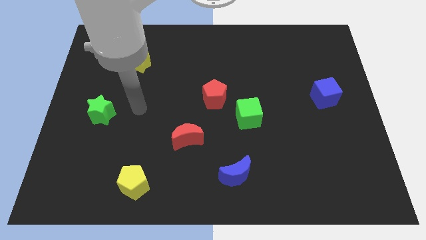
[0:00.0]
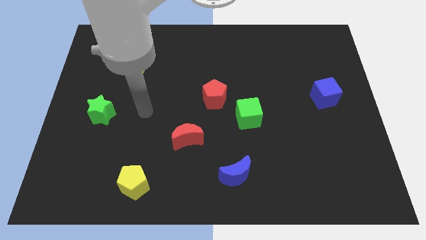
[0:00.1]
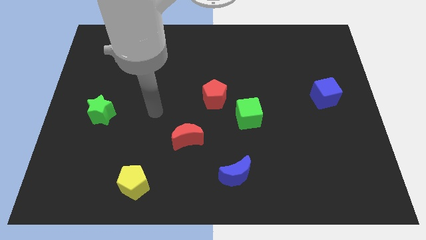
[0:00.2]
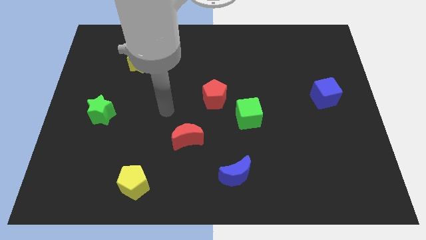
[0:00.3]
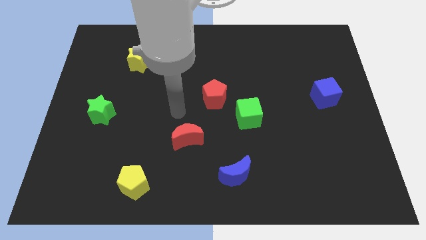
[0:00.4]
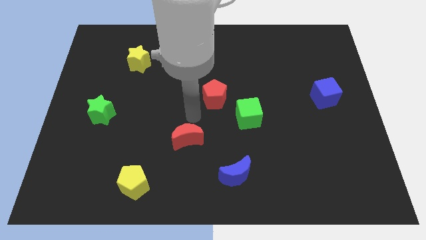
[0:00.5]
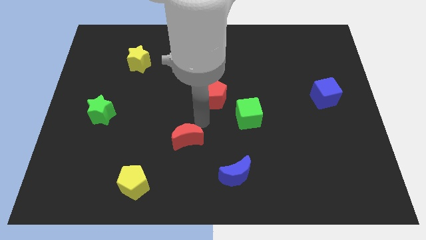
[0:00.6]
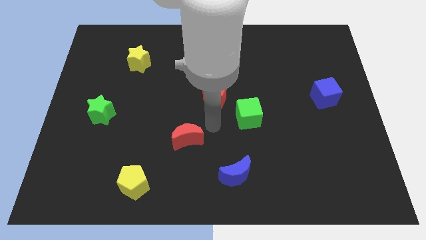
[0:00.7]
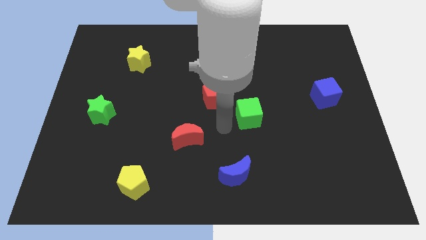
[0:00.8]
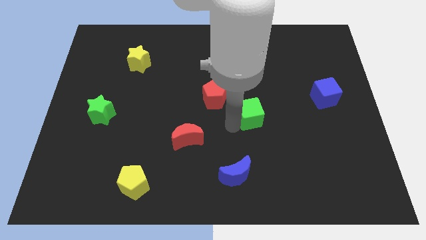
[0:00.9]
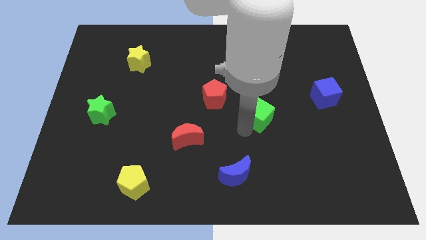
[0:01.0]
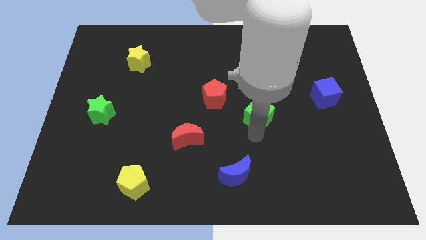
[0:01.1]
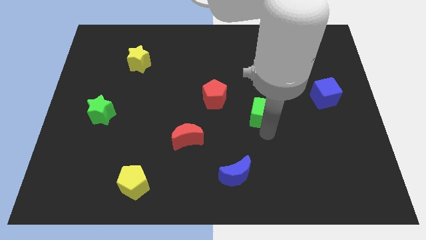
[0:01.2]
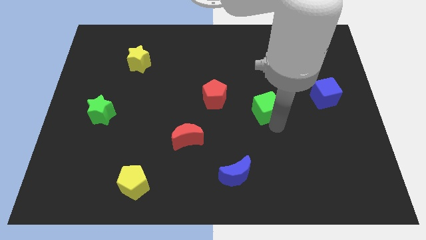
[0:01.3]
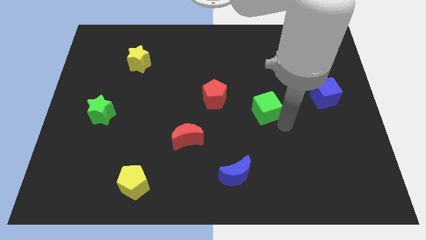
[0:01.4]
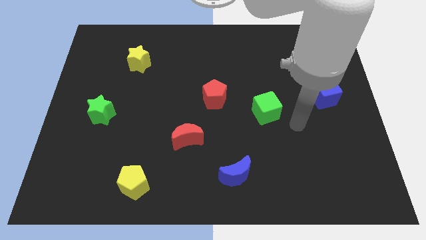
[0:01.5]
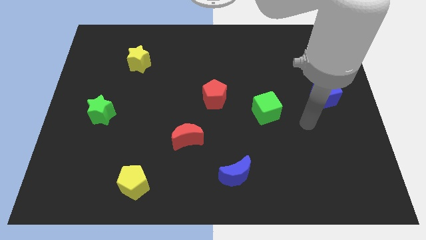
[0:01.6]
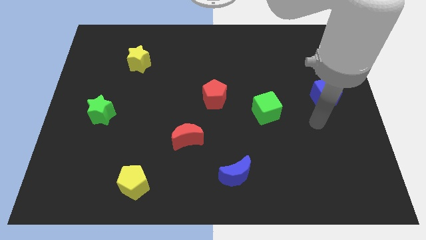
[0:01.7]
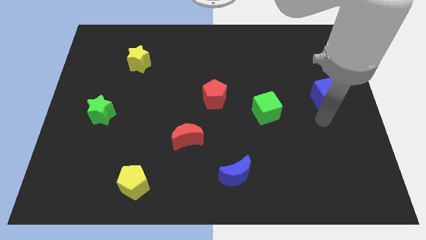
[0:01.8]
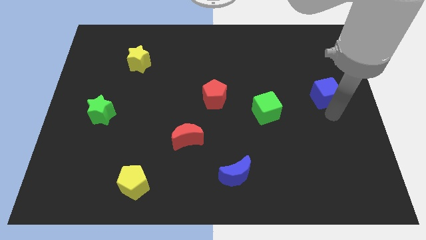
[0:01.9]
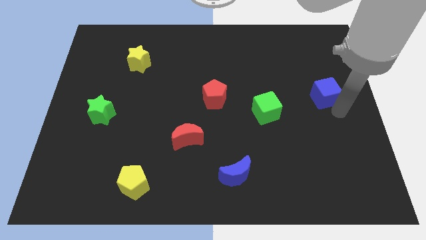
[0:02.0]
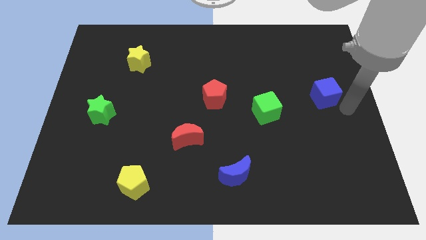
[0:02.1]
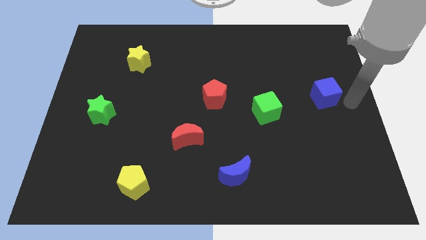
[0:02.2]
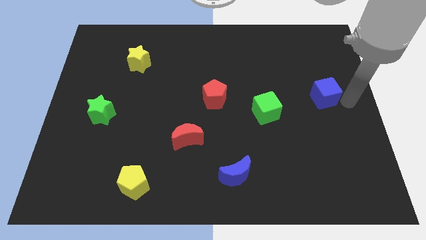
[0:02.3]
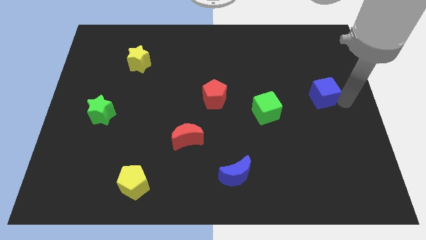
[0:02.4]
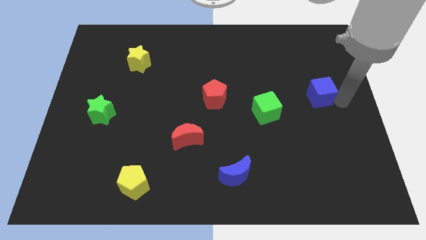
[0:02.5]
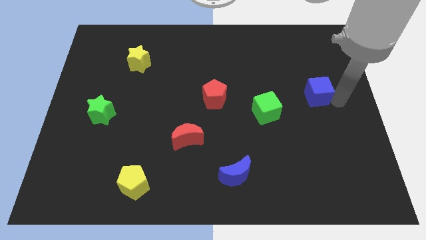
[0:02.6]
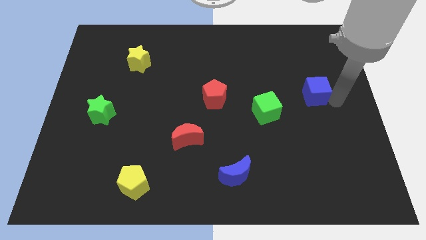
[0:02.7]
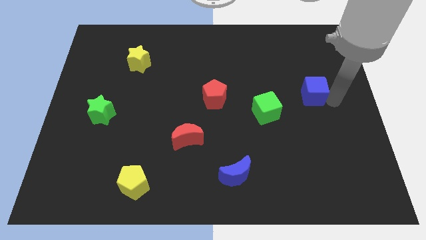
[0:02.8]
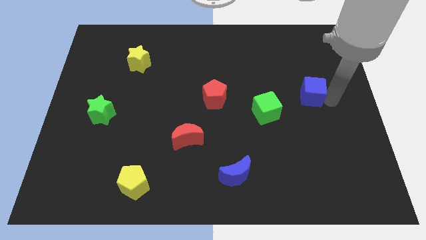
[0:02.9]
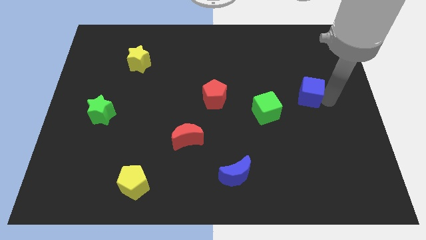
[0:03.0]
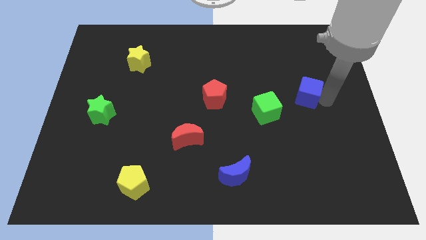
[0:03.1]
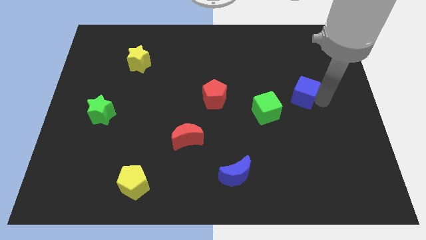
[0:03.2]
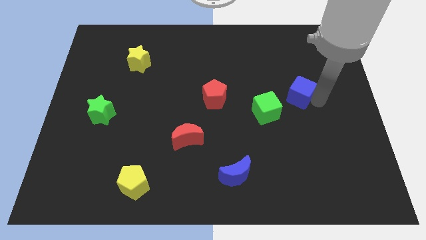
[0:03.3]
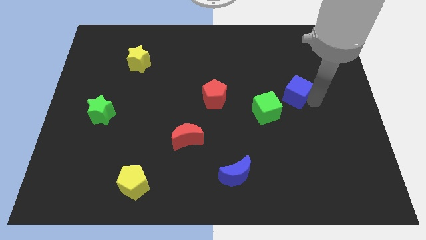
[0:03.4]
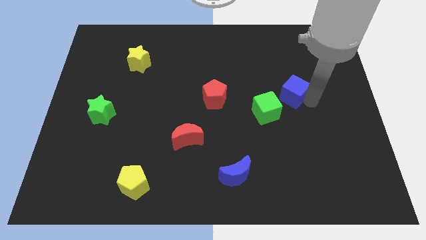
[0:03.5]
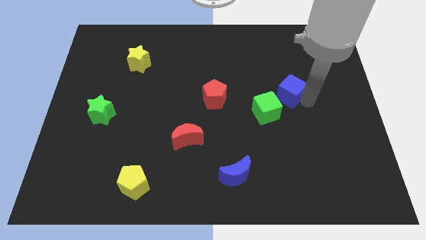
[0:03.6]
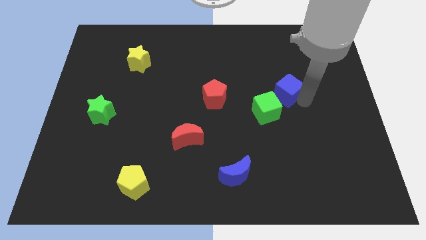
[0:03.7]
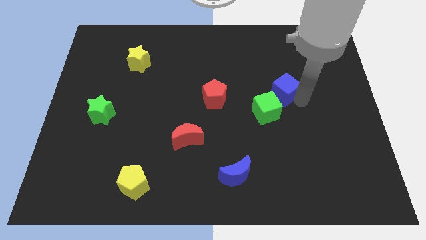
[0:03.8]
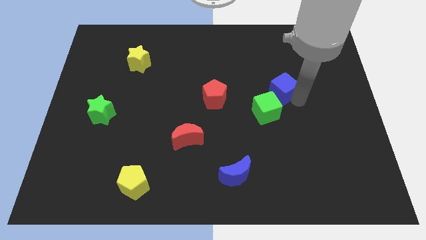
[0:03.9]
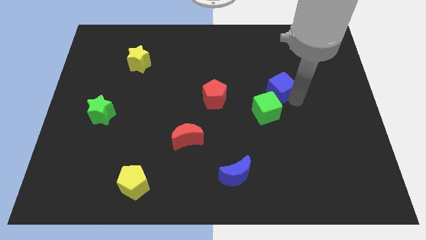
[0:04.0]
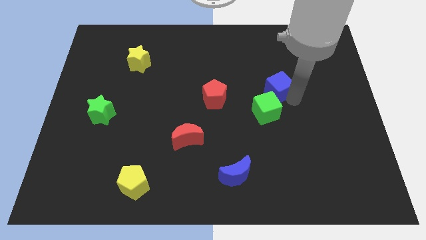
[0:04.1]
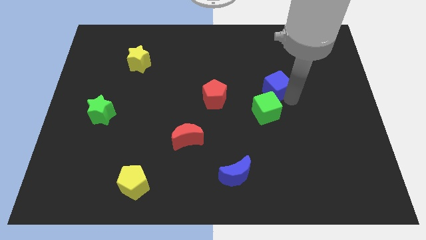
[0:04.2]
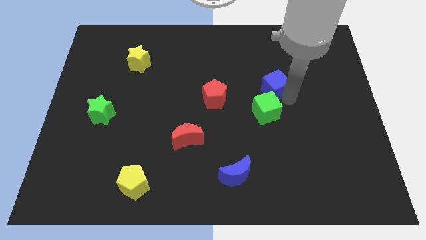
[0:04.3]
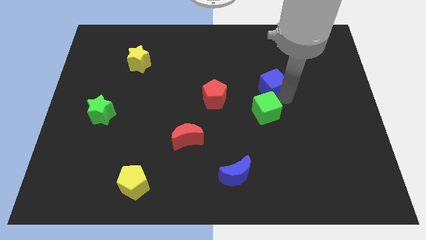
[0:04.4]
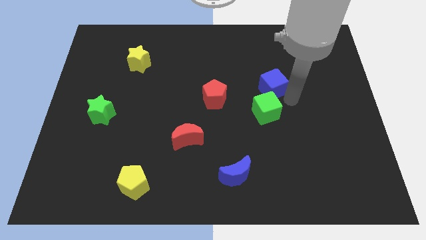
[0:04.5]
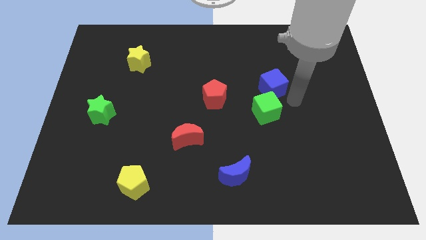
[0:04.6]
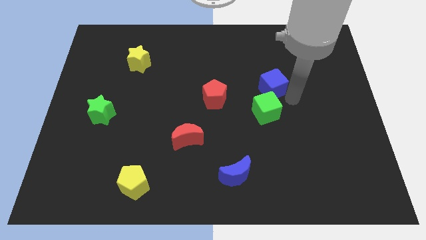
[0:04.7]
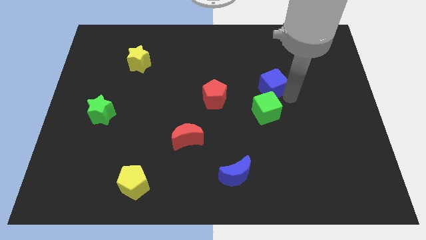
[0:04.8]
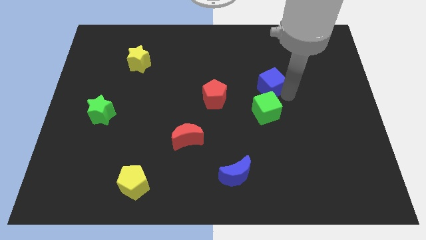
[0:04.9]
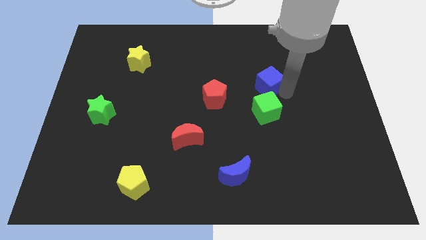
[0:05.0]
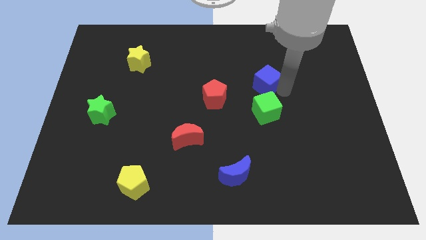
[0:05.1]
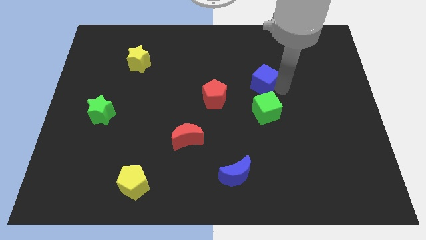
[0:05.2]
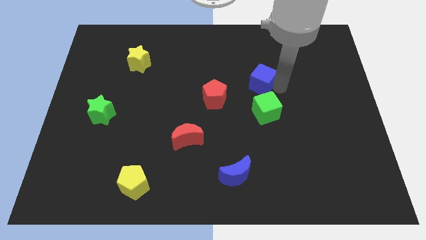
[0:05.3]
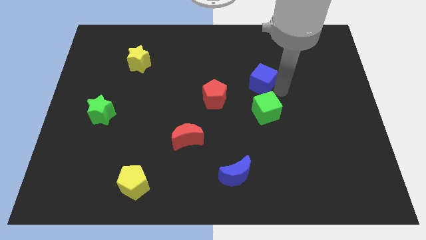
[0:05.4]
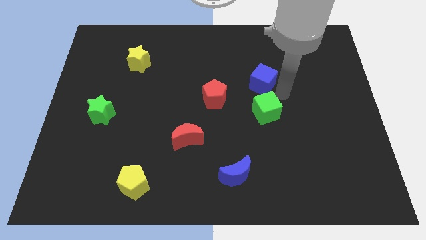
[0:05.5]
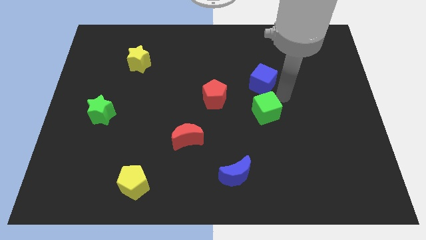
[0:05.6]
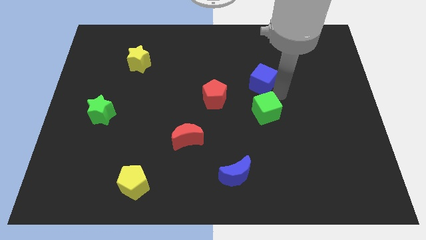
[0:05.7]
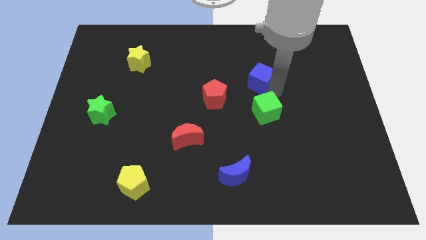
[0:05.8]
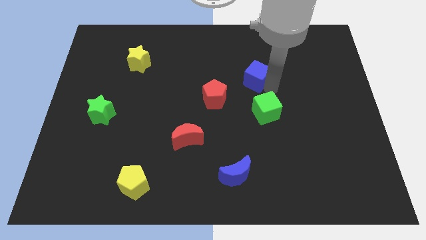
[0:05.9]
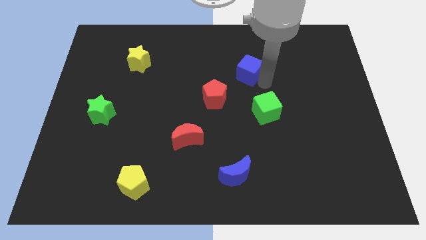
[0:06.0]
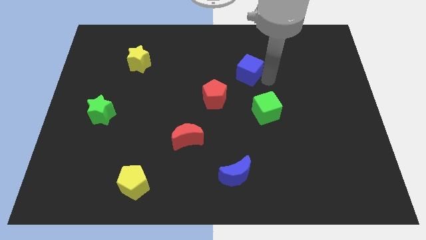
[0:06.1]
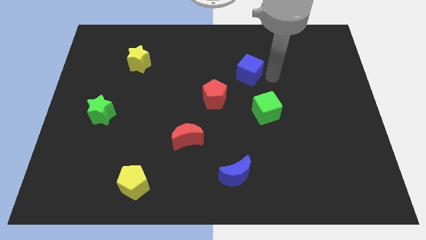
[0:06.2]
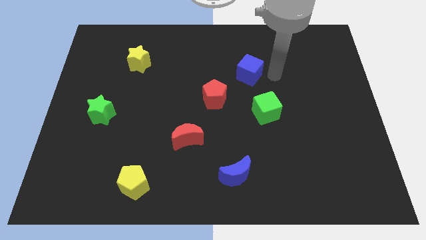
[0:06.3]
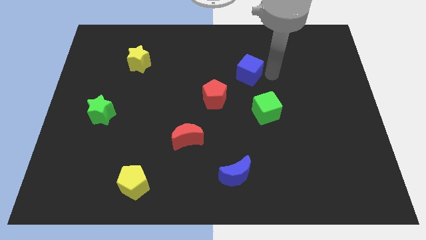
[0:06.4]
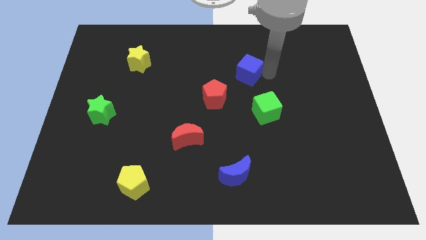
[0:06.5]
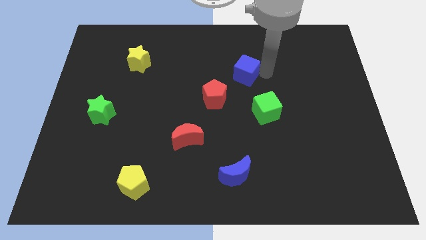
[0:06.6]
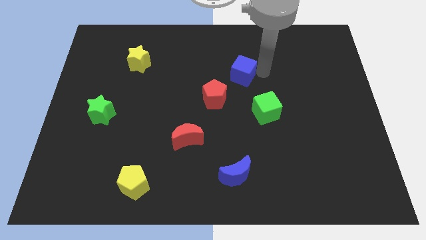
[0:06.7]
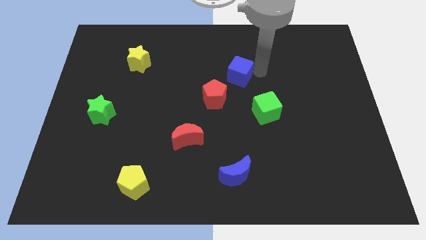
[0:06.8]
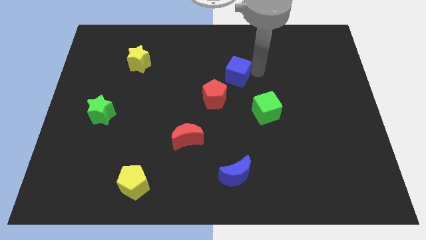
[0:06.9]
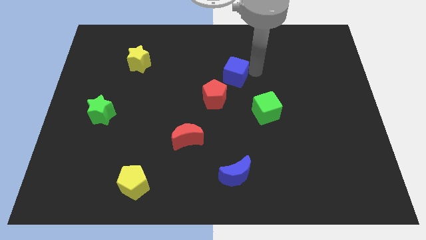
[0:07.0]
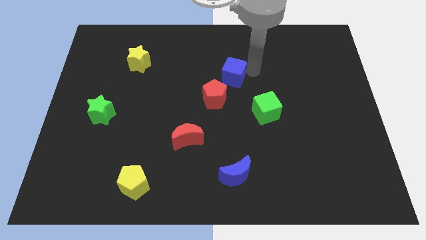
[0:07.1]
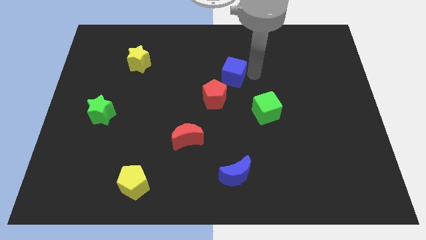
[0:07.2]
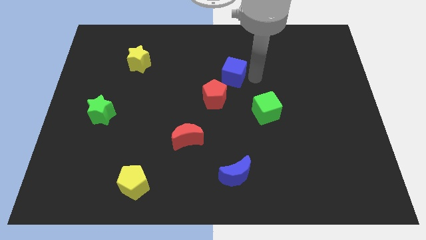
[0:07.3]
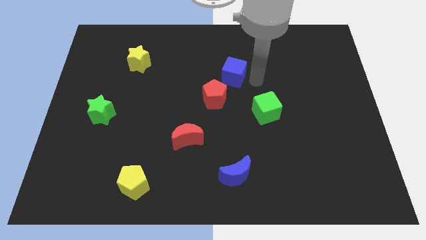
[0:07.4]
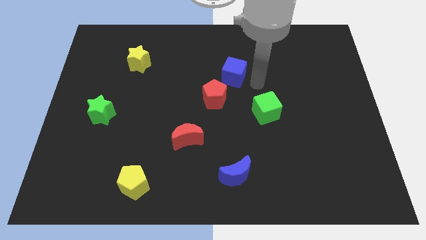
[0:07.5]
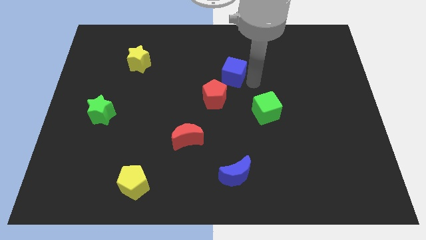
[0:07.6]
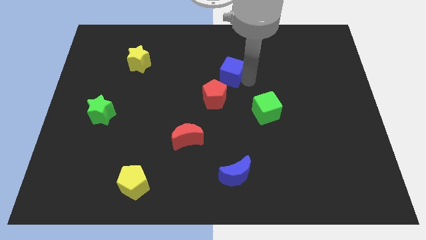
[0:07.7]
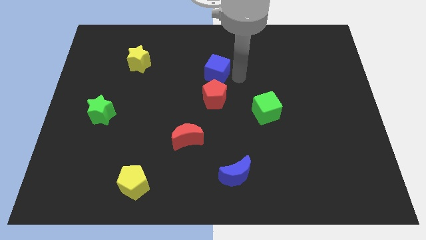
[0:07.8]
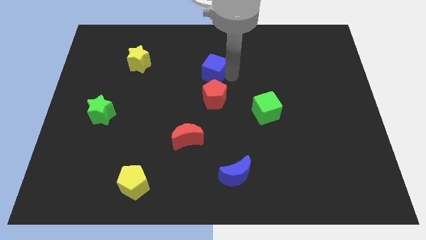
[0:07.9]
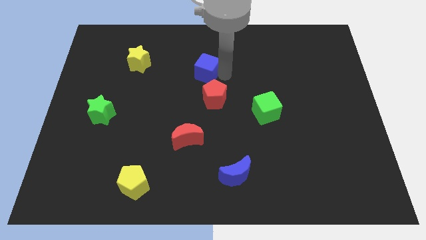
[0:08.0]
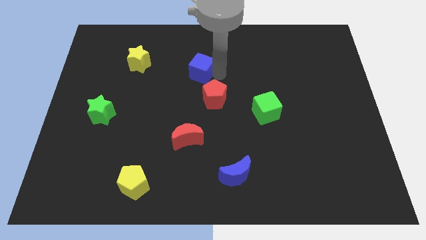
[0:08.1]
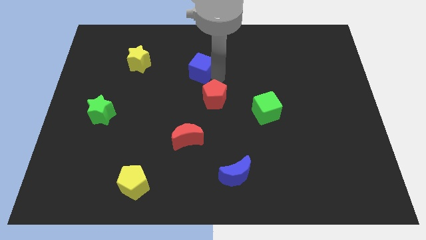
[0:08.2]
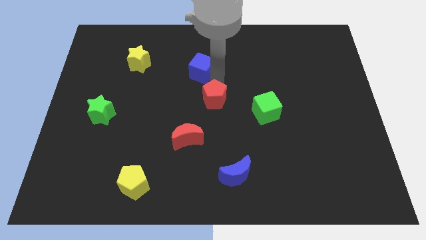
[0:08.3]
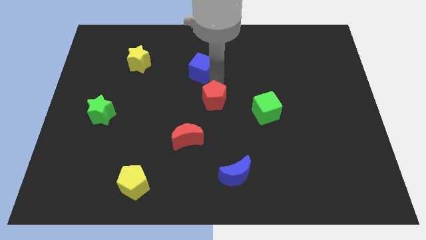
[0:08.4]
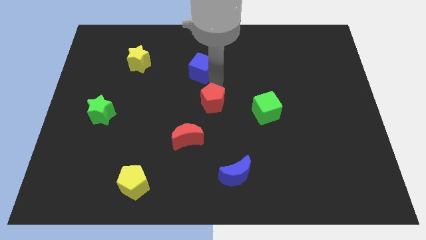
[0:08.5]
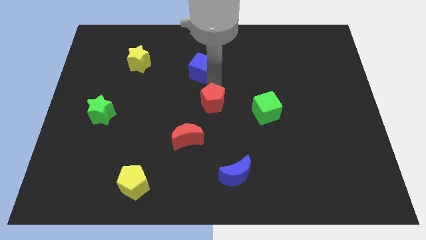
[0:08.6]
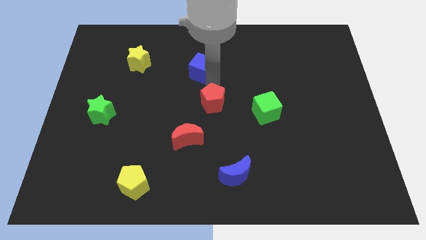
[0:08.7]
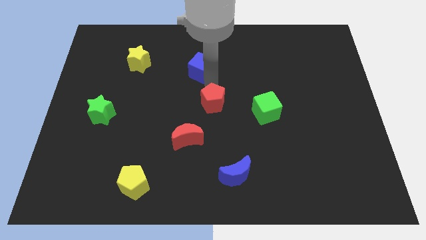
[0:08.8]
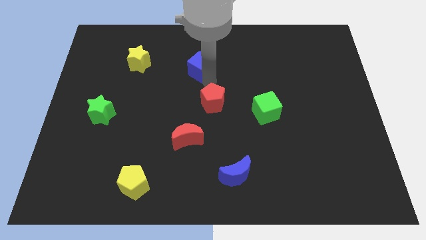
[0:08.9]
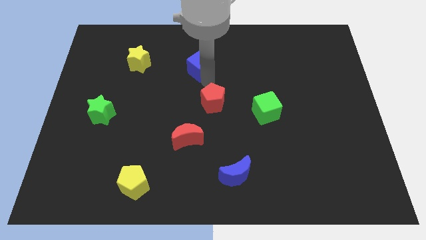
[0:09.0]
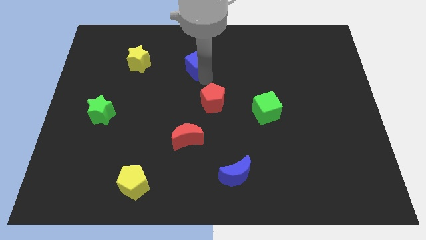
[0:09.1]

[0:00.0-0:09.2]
push the blue cube just right of the yellow star
